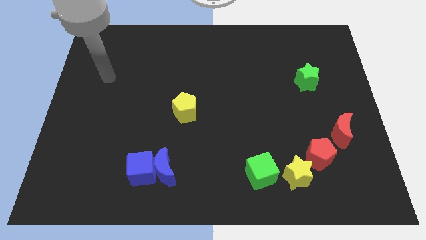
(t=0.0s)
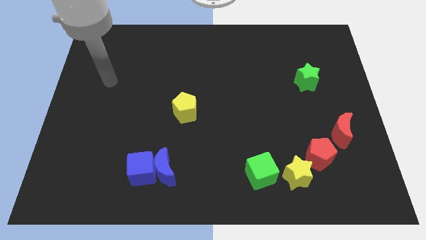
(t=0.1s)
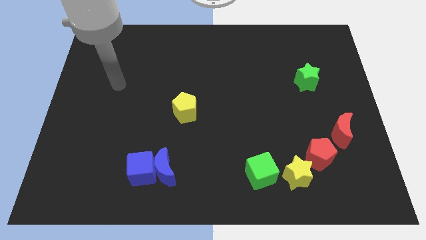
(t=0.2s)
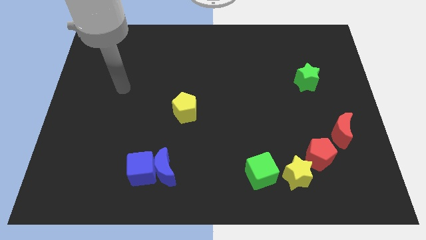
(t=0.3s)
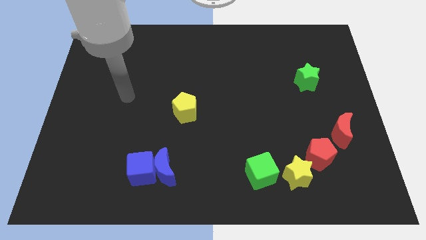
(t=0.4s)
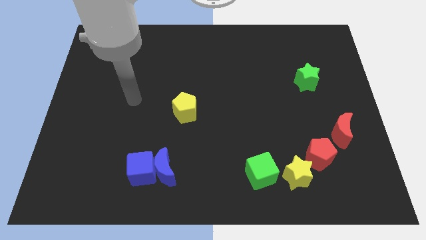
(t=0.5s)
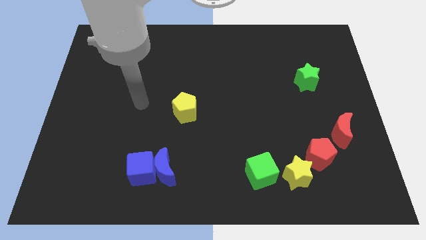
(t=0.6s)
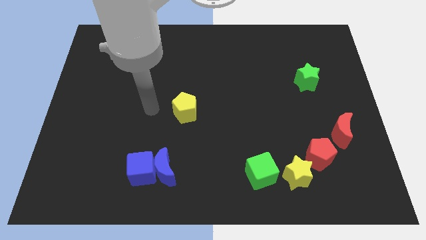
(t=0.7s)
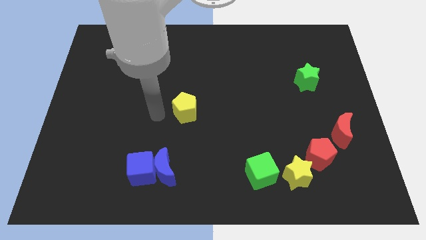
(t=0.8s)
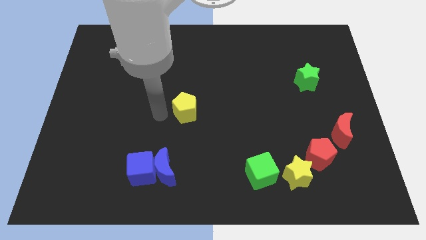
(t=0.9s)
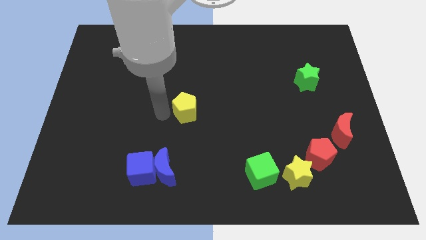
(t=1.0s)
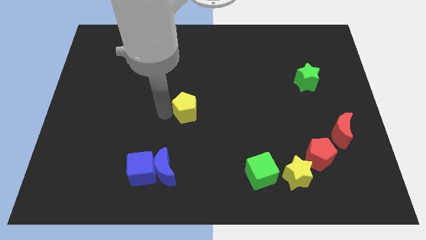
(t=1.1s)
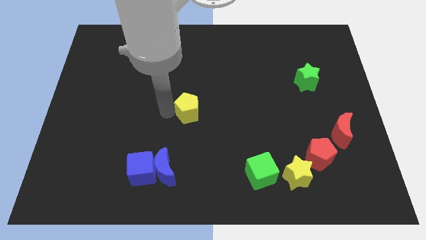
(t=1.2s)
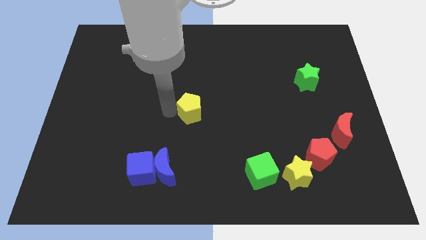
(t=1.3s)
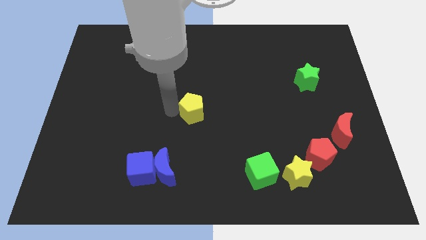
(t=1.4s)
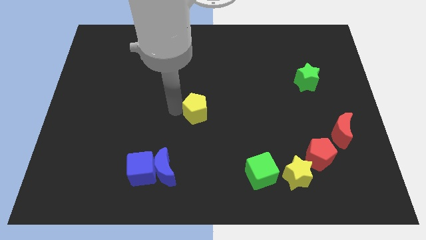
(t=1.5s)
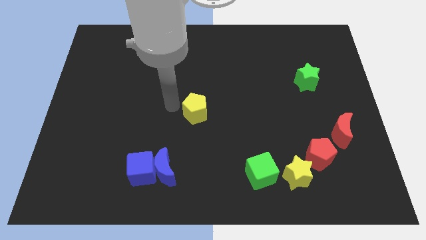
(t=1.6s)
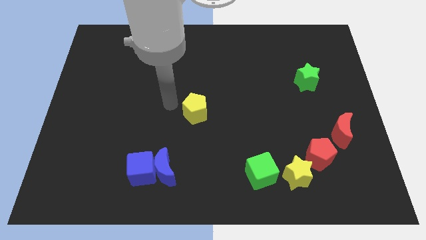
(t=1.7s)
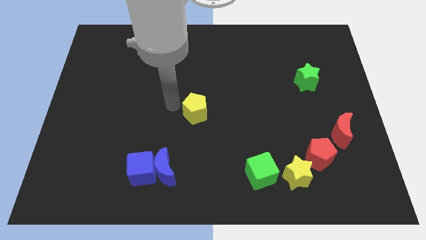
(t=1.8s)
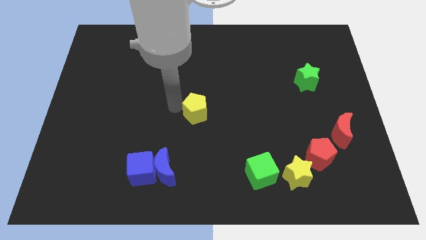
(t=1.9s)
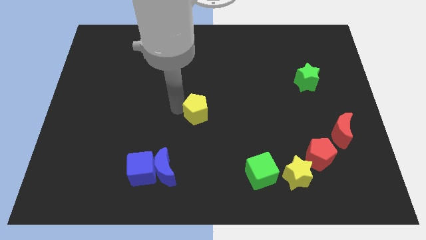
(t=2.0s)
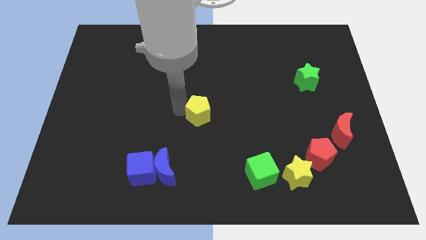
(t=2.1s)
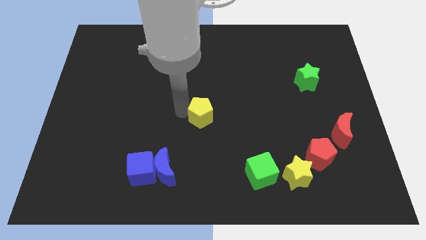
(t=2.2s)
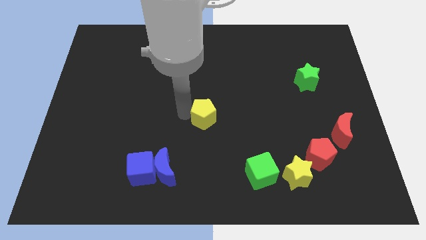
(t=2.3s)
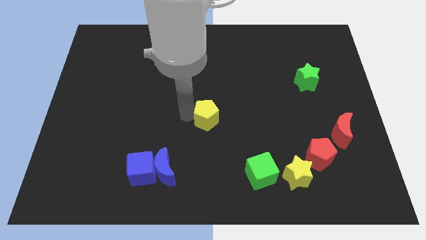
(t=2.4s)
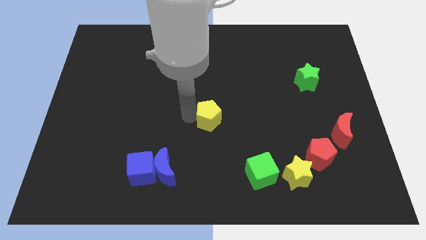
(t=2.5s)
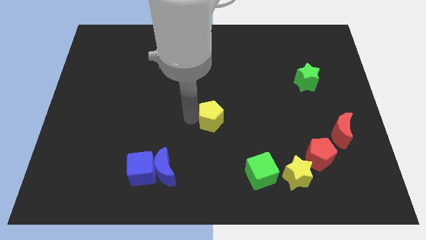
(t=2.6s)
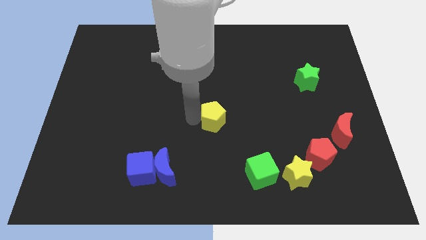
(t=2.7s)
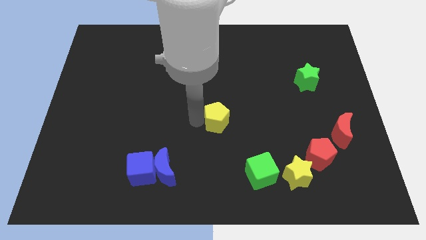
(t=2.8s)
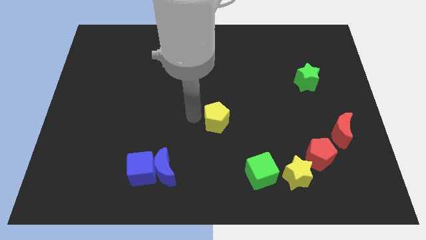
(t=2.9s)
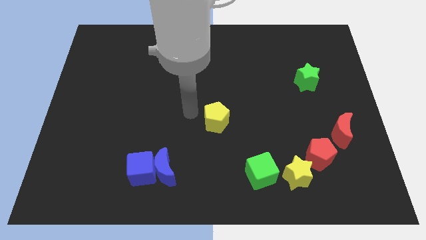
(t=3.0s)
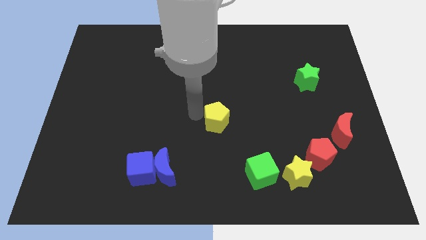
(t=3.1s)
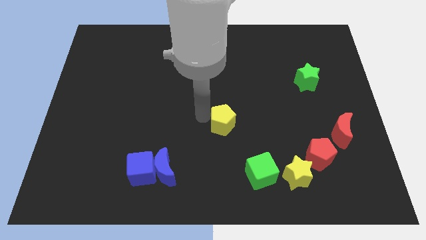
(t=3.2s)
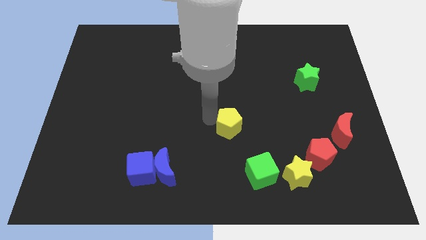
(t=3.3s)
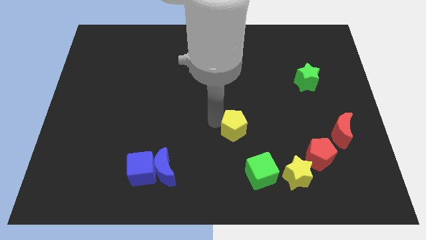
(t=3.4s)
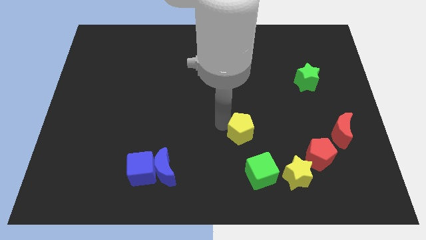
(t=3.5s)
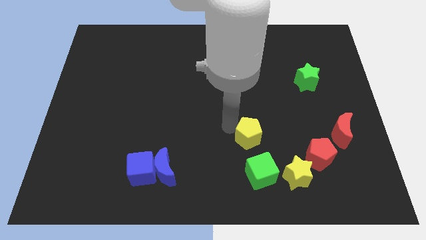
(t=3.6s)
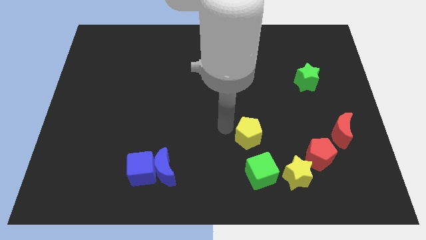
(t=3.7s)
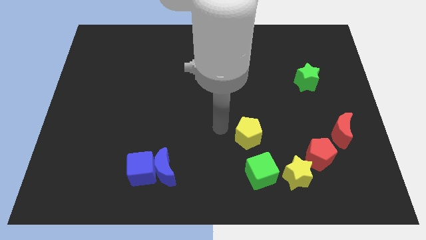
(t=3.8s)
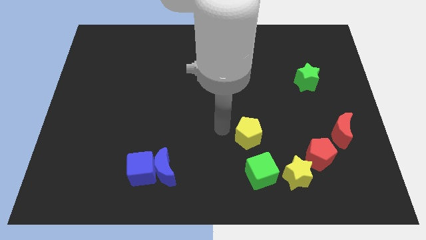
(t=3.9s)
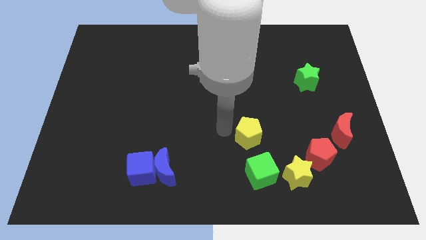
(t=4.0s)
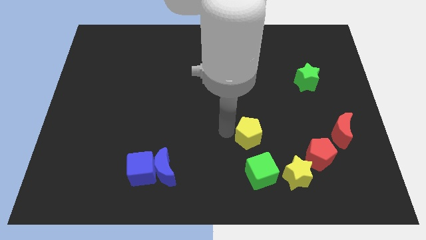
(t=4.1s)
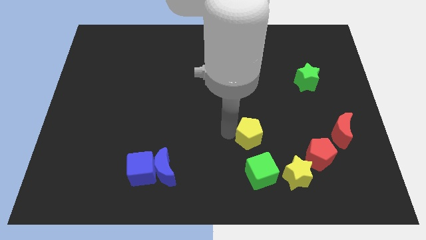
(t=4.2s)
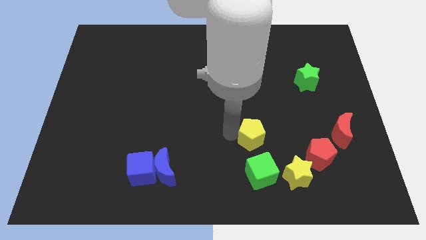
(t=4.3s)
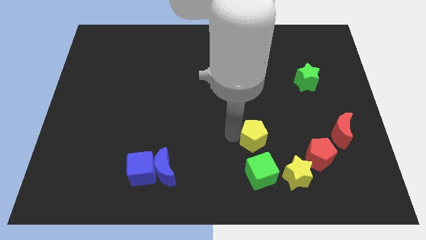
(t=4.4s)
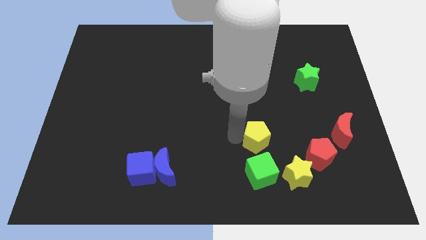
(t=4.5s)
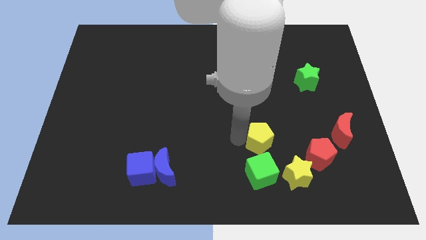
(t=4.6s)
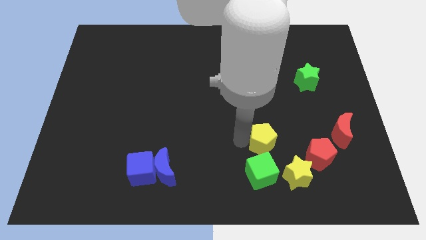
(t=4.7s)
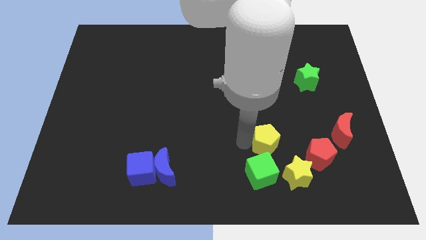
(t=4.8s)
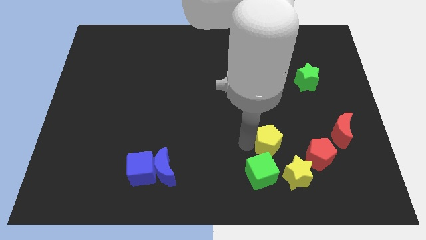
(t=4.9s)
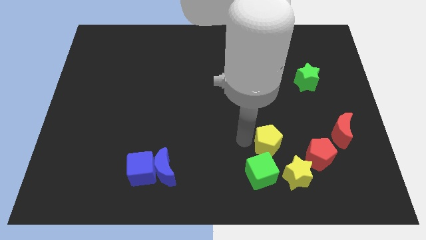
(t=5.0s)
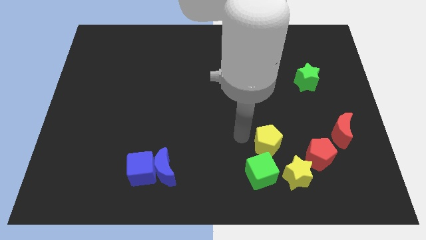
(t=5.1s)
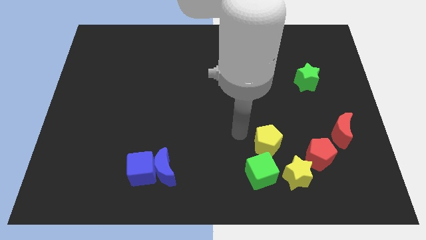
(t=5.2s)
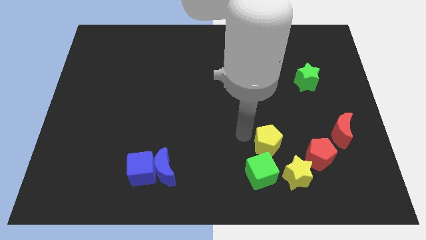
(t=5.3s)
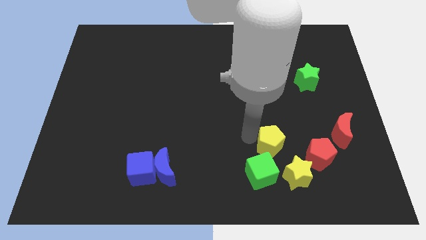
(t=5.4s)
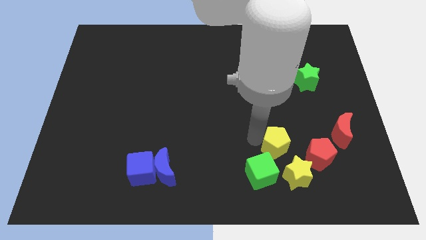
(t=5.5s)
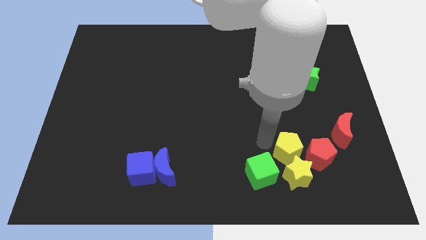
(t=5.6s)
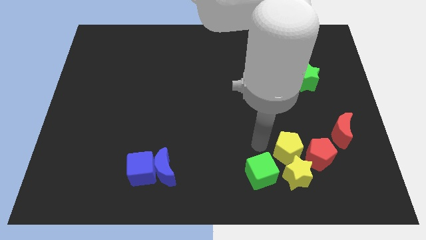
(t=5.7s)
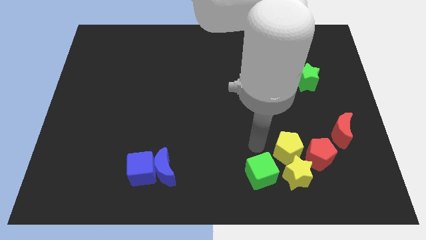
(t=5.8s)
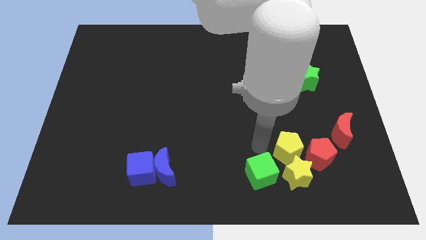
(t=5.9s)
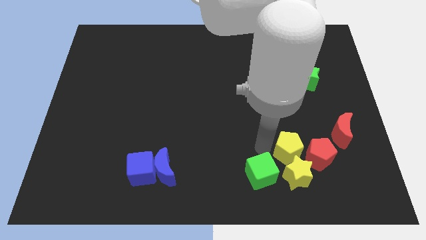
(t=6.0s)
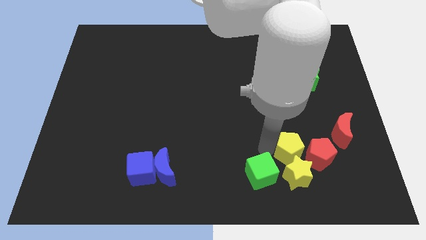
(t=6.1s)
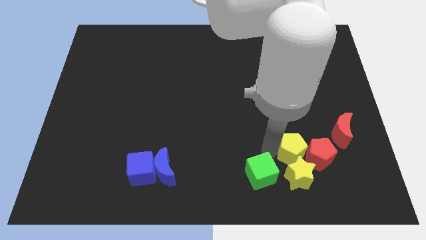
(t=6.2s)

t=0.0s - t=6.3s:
slide the yellow pentagon to the red pentagon

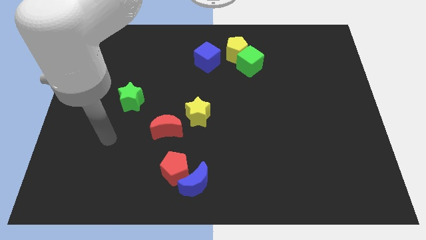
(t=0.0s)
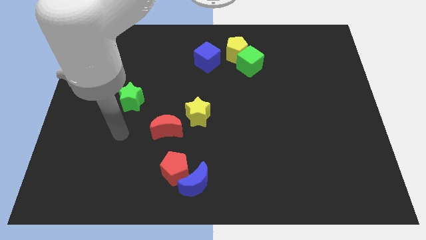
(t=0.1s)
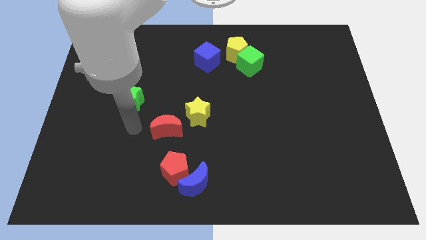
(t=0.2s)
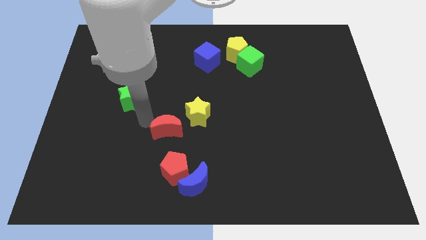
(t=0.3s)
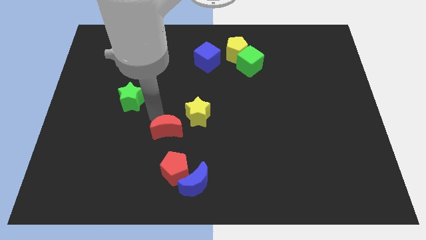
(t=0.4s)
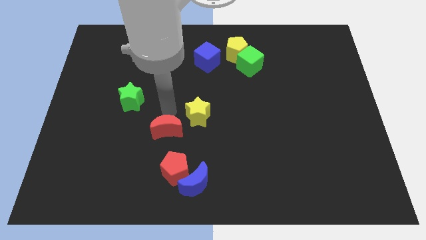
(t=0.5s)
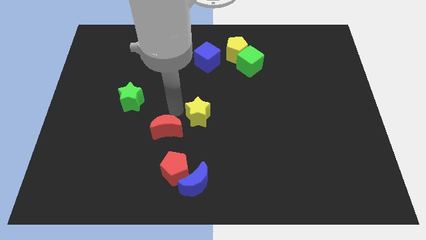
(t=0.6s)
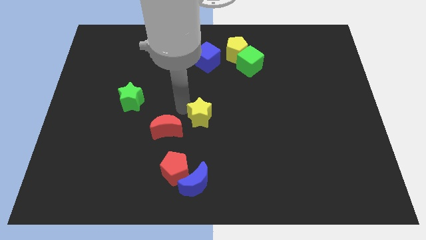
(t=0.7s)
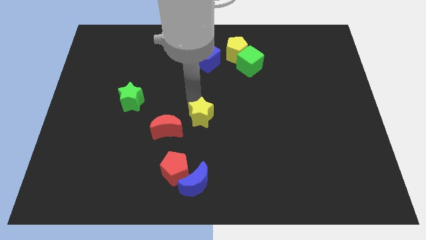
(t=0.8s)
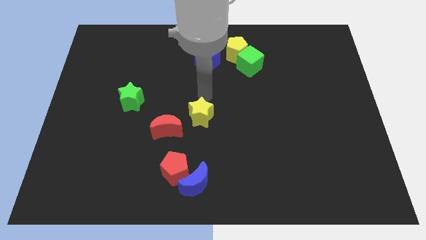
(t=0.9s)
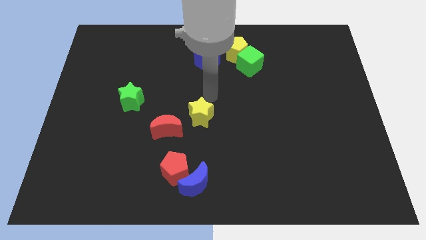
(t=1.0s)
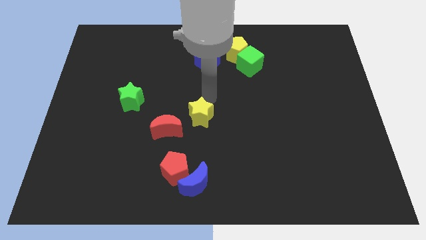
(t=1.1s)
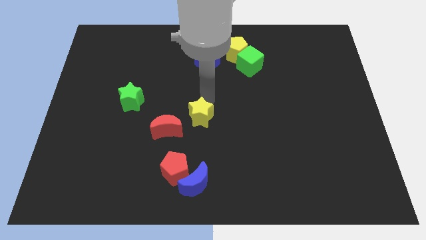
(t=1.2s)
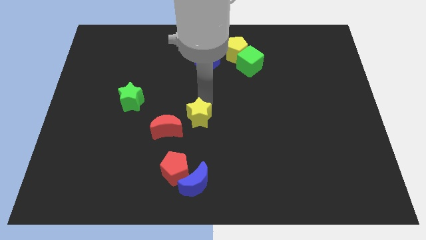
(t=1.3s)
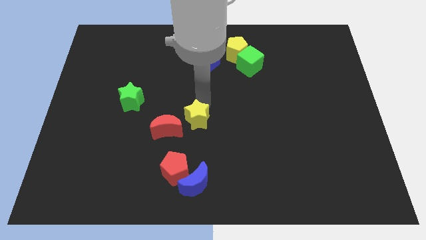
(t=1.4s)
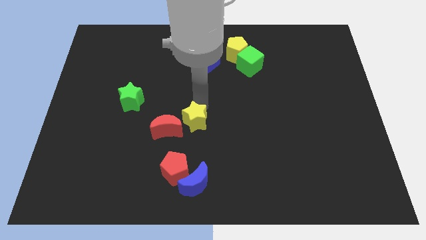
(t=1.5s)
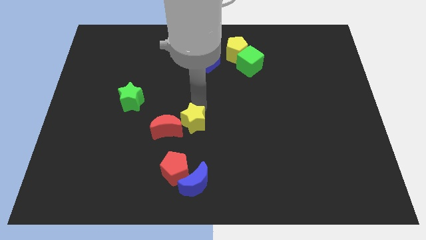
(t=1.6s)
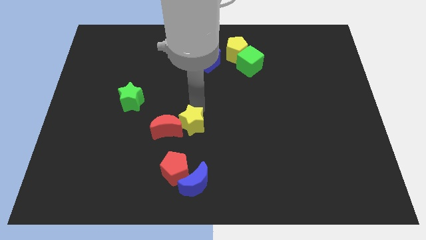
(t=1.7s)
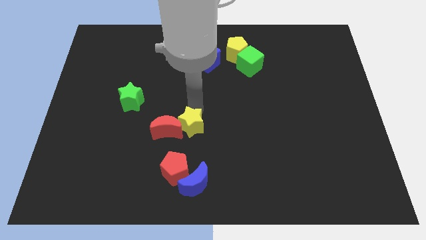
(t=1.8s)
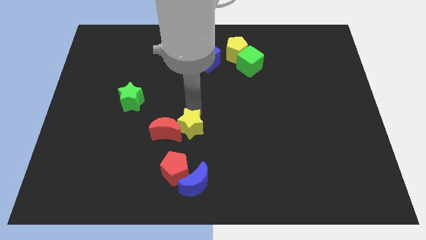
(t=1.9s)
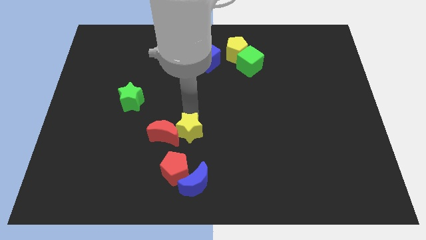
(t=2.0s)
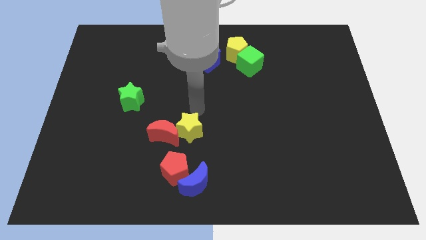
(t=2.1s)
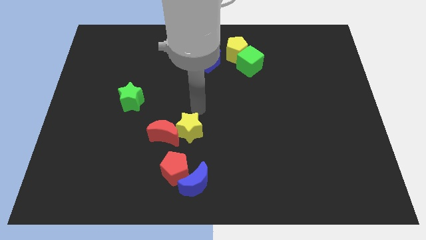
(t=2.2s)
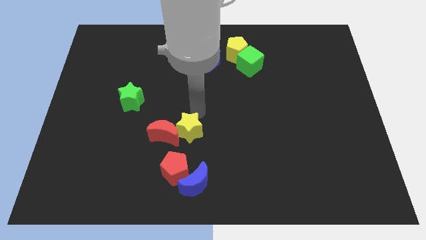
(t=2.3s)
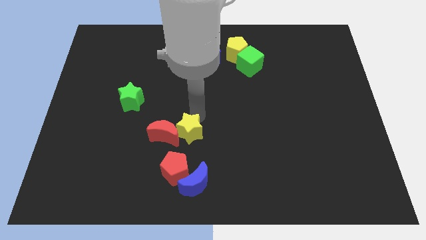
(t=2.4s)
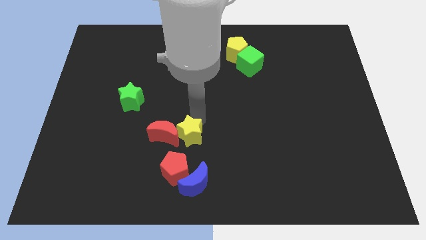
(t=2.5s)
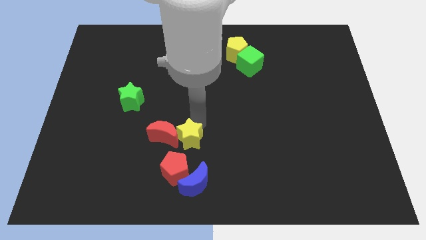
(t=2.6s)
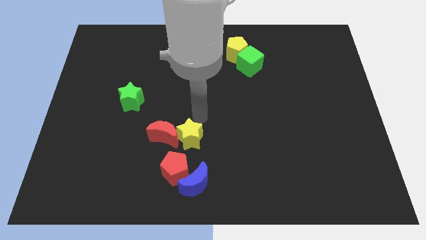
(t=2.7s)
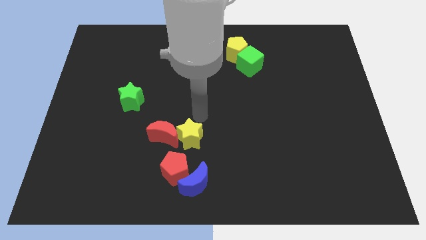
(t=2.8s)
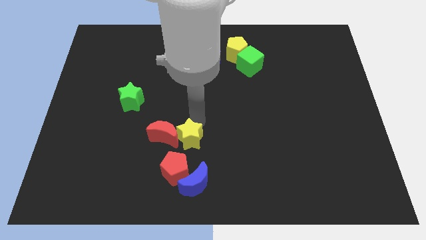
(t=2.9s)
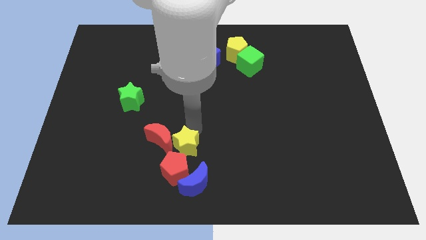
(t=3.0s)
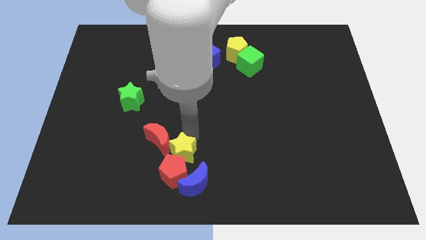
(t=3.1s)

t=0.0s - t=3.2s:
put the yellow star close to the red pentagon
